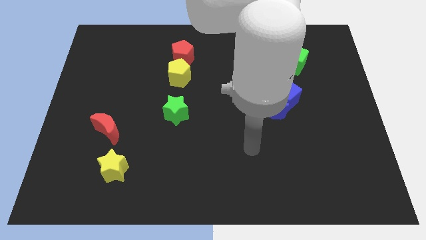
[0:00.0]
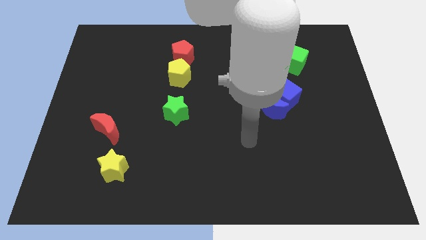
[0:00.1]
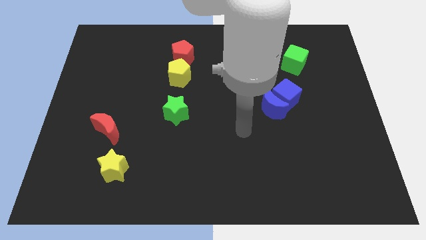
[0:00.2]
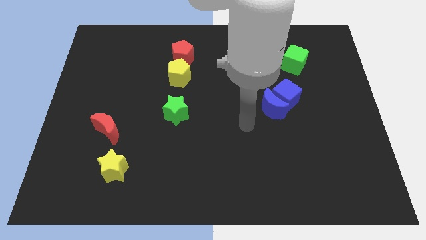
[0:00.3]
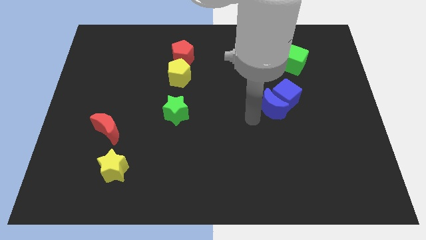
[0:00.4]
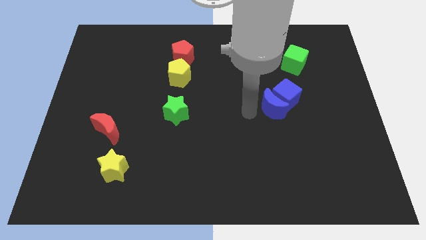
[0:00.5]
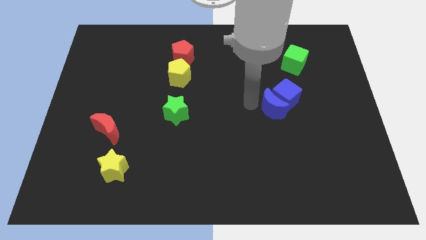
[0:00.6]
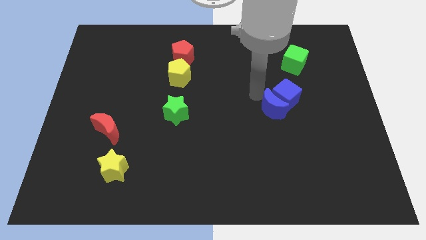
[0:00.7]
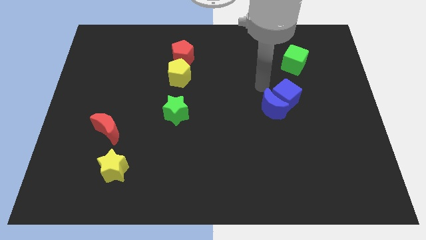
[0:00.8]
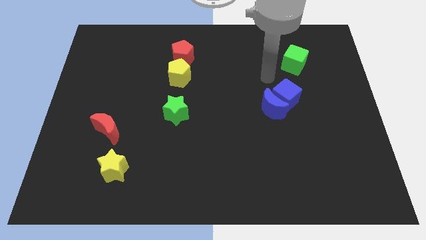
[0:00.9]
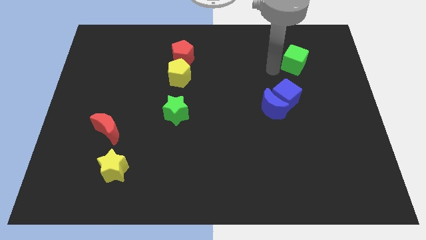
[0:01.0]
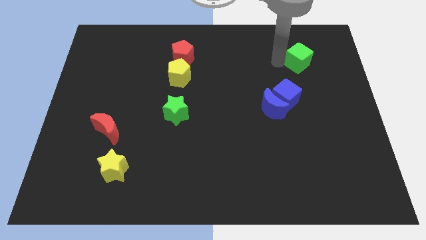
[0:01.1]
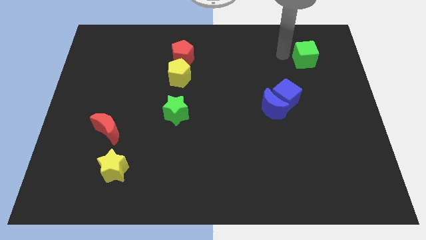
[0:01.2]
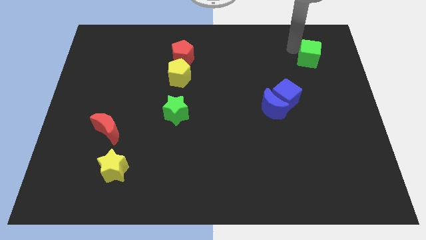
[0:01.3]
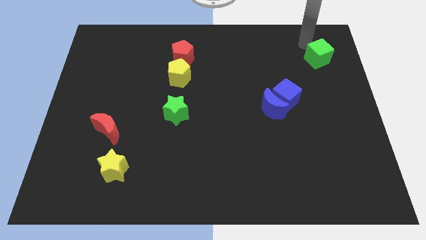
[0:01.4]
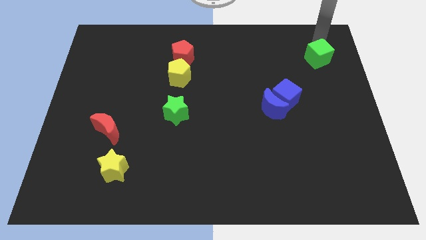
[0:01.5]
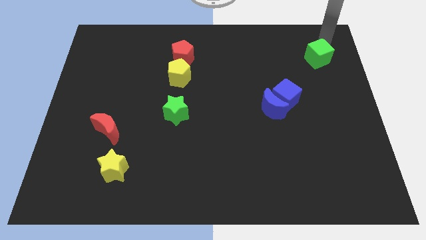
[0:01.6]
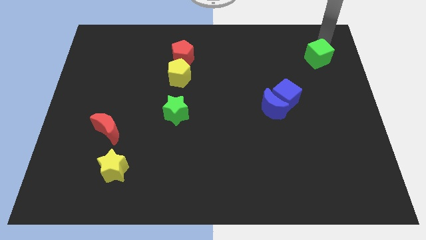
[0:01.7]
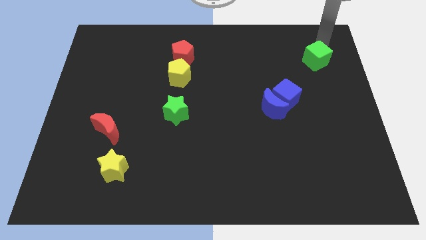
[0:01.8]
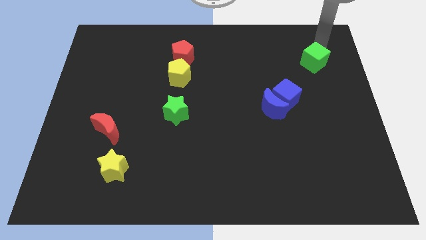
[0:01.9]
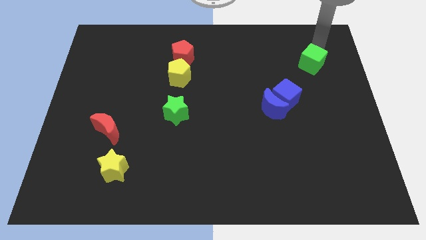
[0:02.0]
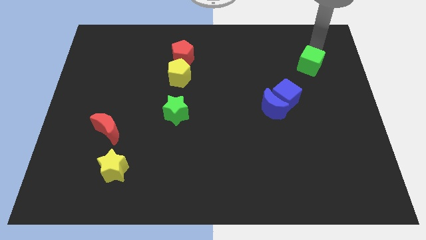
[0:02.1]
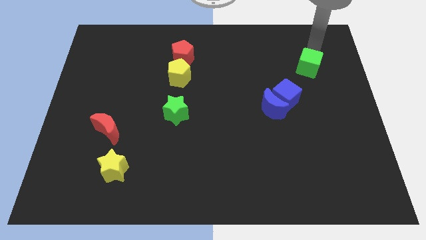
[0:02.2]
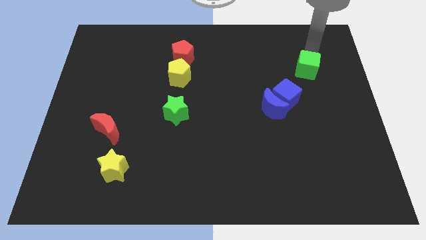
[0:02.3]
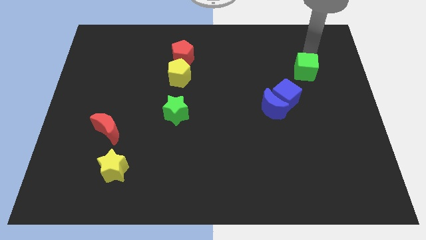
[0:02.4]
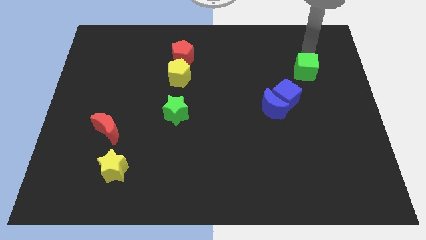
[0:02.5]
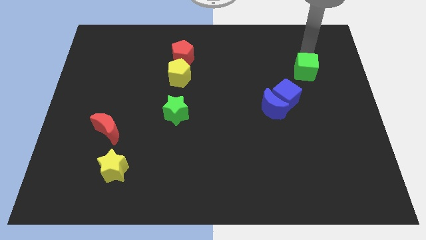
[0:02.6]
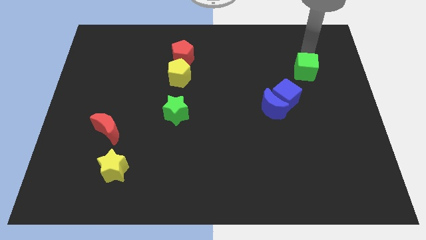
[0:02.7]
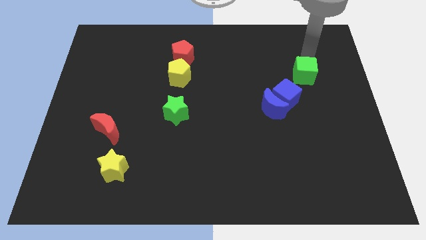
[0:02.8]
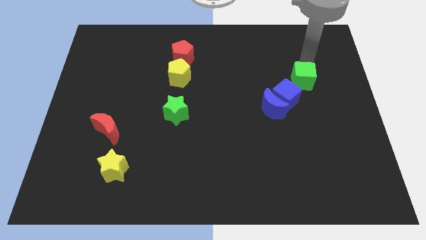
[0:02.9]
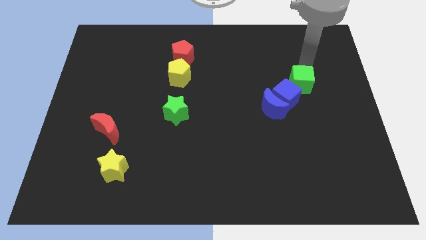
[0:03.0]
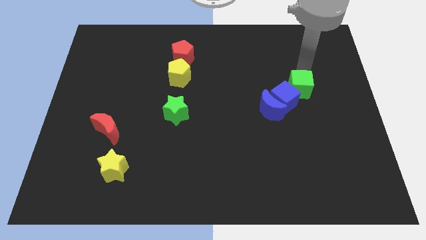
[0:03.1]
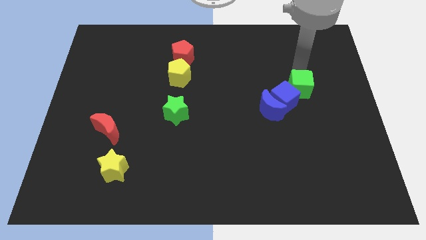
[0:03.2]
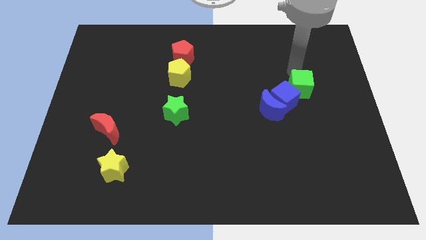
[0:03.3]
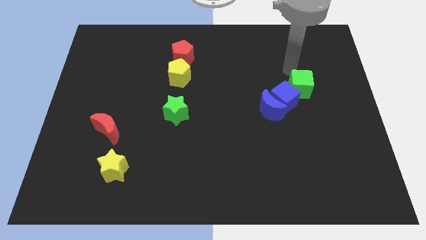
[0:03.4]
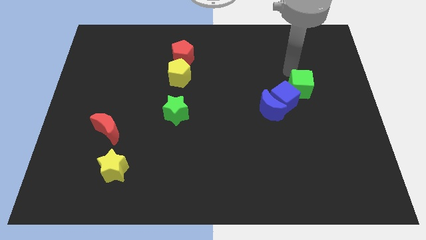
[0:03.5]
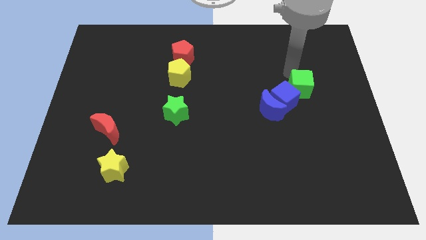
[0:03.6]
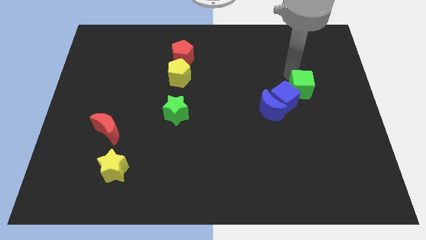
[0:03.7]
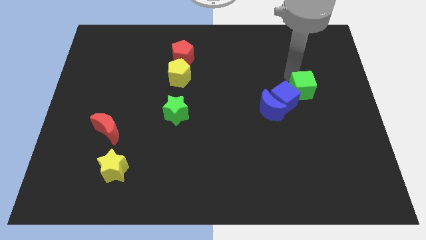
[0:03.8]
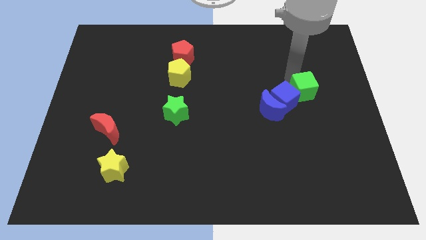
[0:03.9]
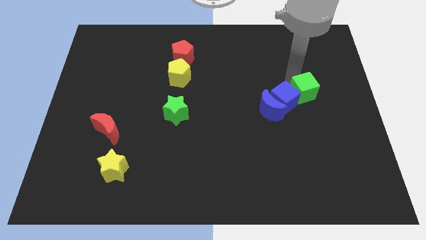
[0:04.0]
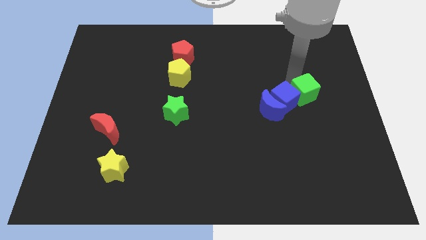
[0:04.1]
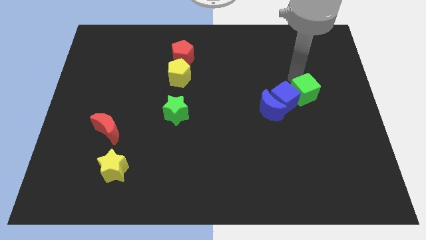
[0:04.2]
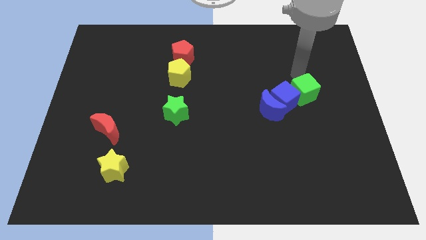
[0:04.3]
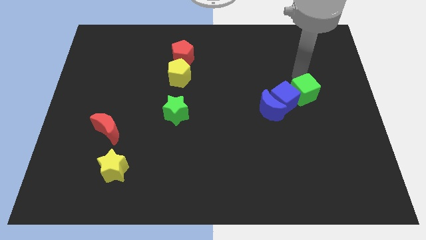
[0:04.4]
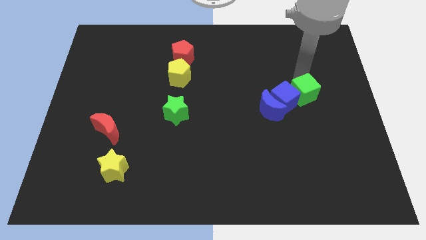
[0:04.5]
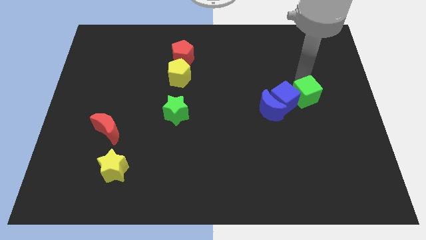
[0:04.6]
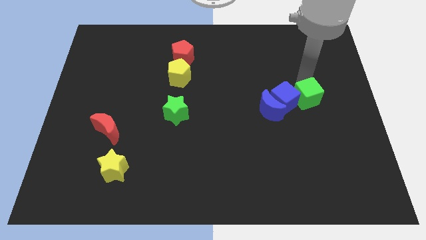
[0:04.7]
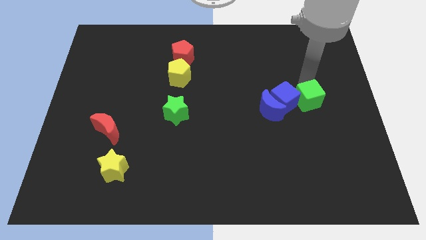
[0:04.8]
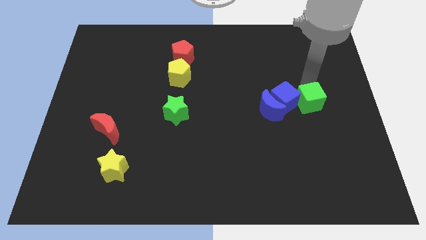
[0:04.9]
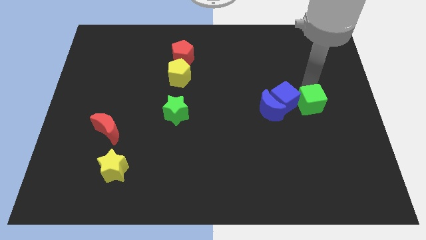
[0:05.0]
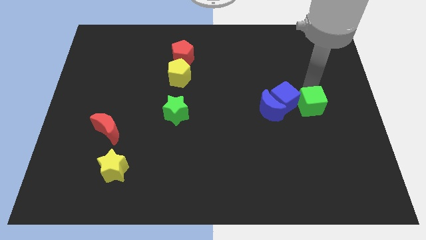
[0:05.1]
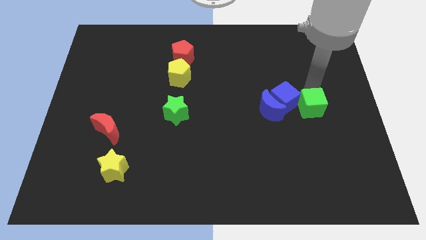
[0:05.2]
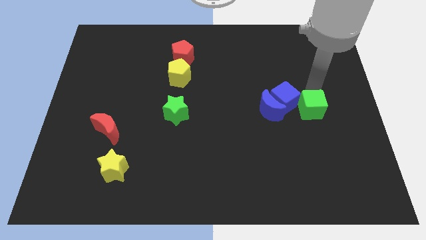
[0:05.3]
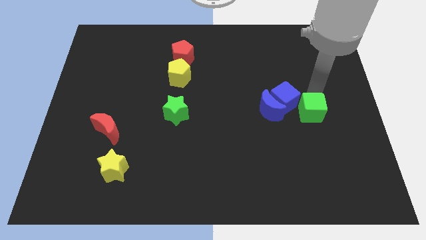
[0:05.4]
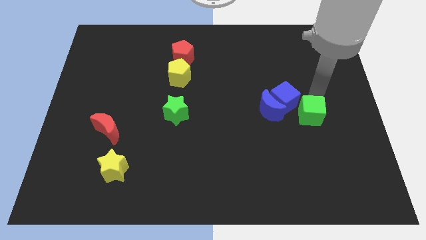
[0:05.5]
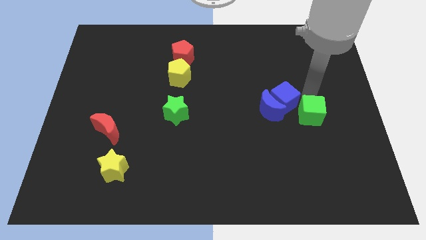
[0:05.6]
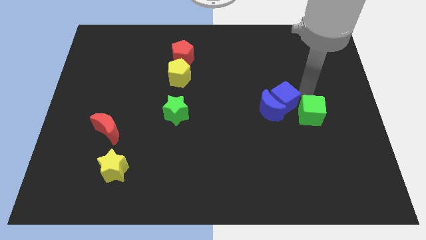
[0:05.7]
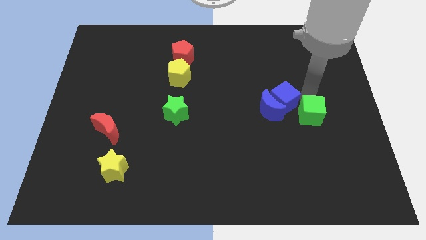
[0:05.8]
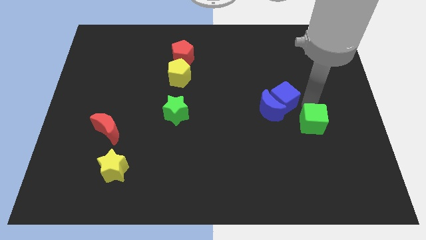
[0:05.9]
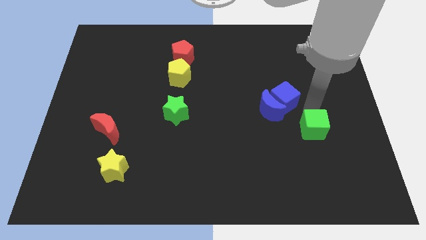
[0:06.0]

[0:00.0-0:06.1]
slide the green cube downwards

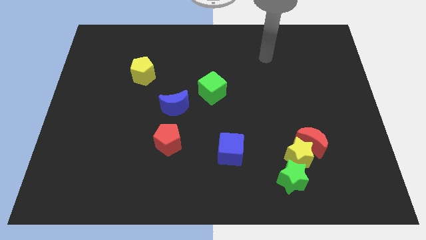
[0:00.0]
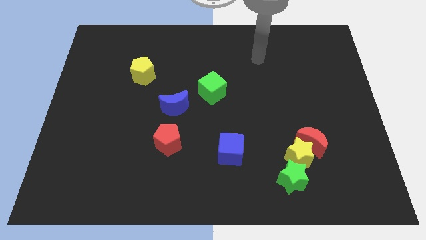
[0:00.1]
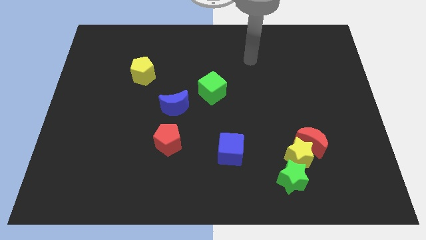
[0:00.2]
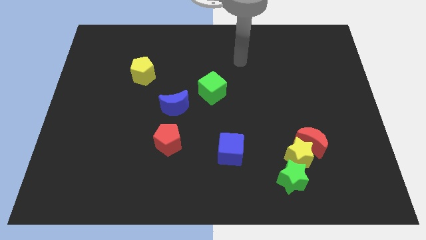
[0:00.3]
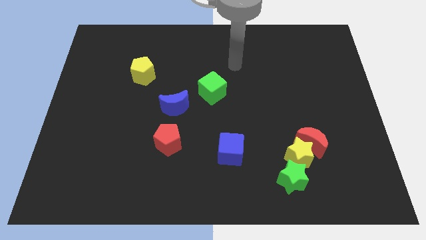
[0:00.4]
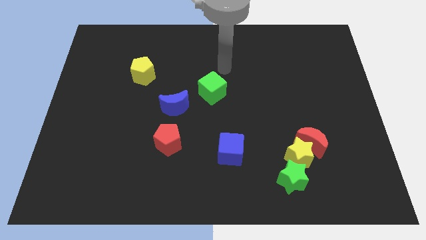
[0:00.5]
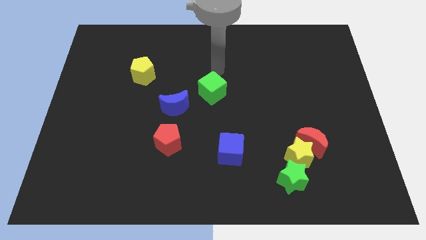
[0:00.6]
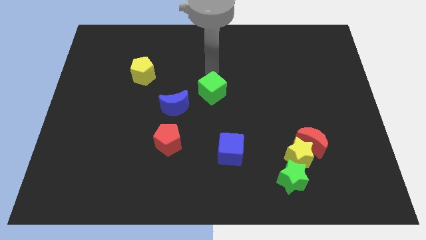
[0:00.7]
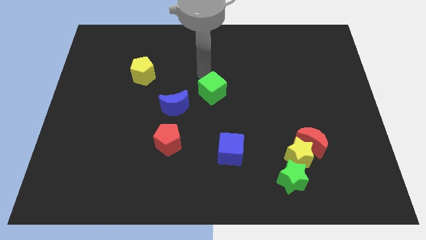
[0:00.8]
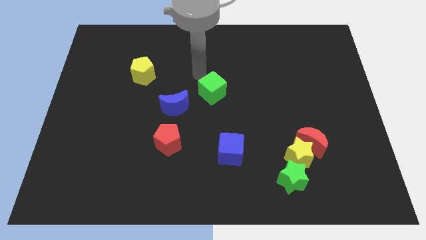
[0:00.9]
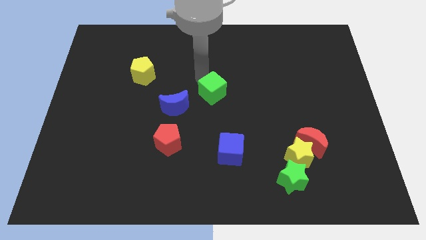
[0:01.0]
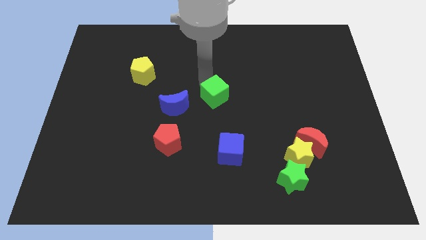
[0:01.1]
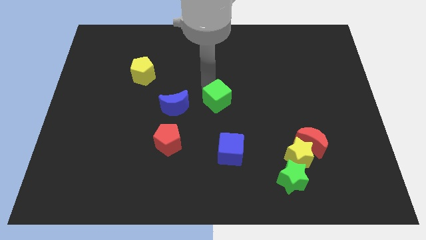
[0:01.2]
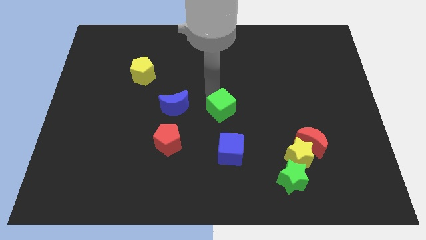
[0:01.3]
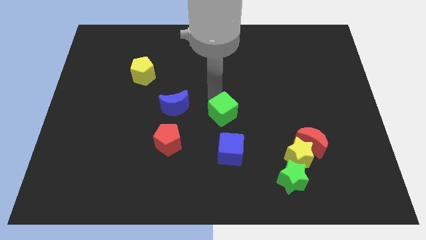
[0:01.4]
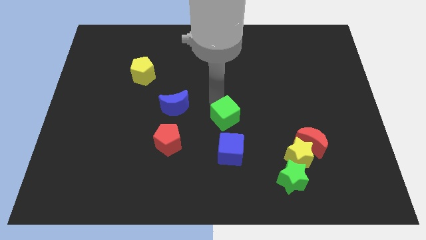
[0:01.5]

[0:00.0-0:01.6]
slightly move the green cube down and right diagonally

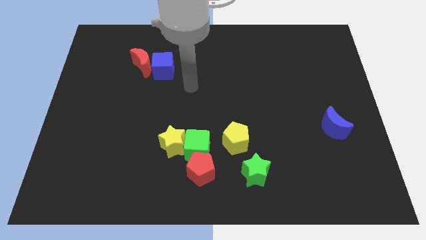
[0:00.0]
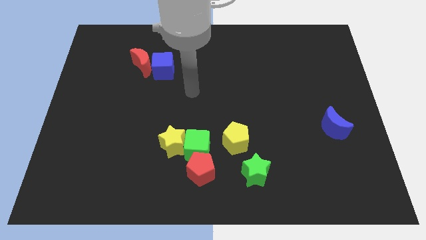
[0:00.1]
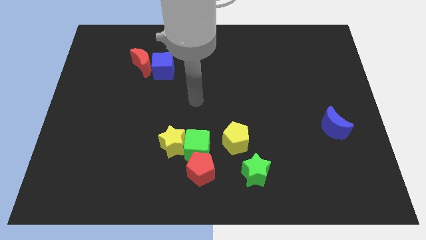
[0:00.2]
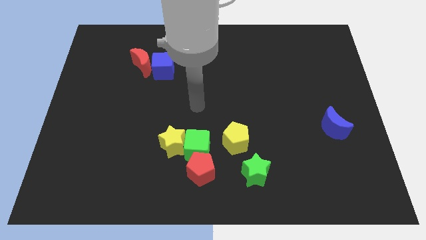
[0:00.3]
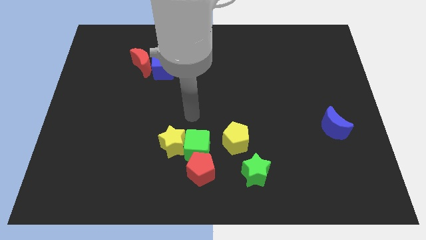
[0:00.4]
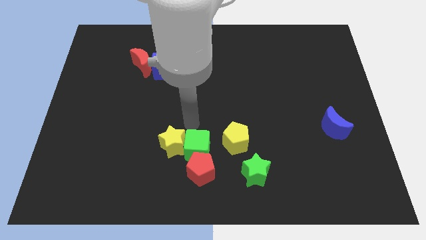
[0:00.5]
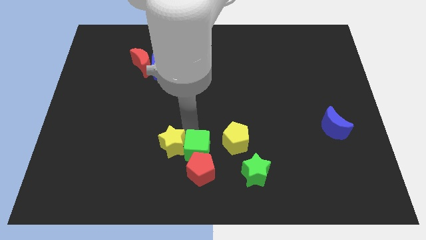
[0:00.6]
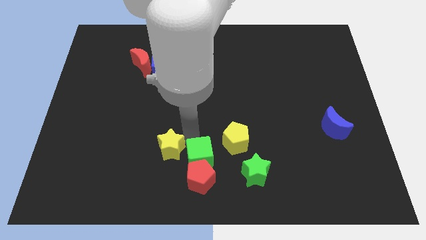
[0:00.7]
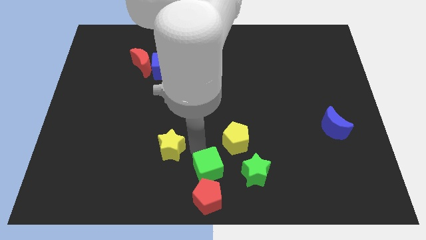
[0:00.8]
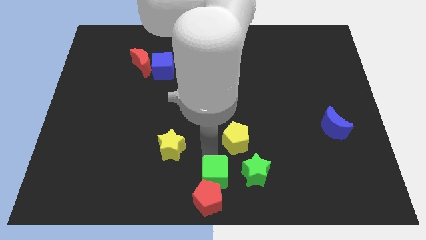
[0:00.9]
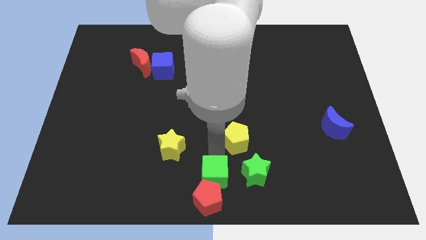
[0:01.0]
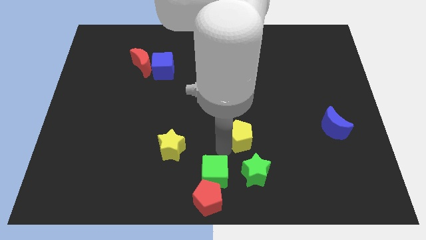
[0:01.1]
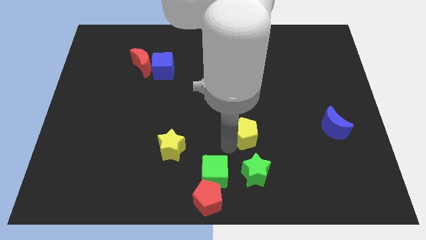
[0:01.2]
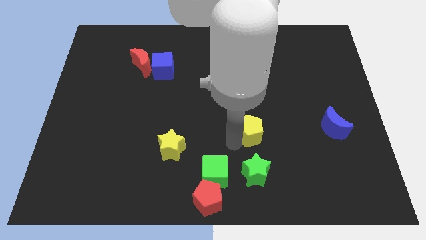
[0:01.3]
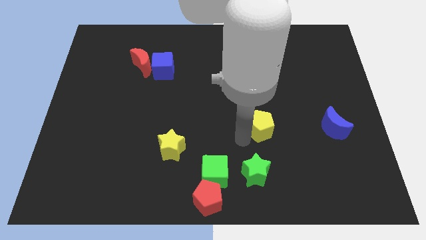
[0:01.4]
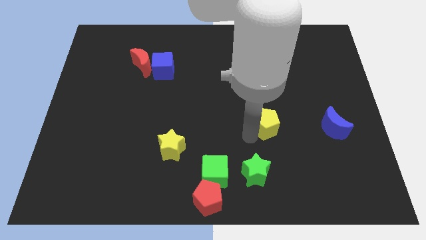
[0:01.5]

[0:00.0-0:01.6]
slide the yellow pentagon diagonally up and to the right a bit
